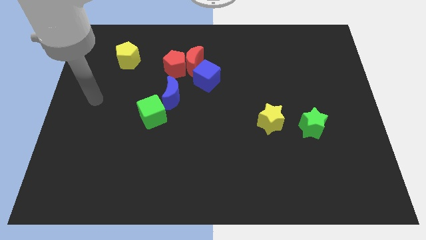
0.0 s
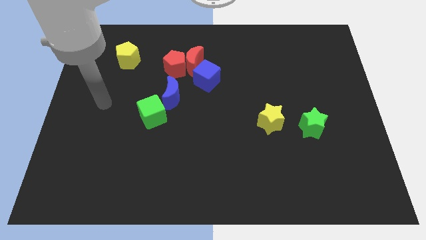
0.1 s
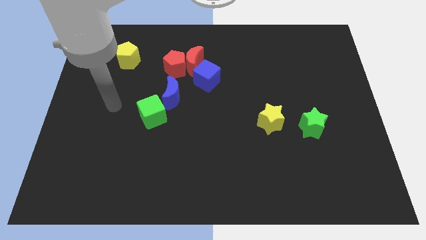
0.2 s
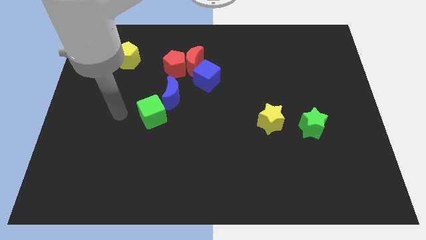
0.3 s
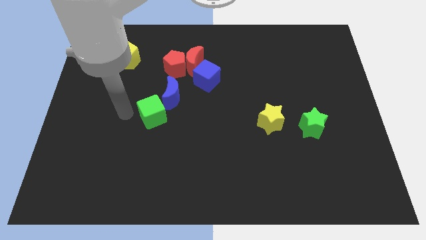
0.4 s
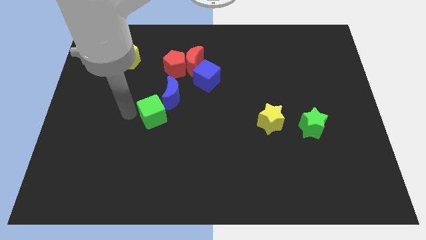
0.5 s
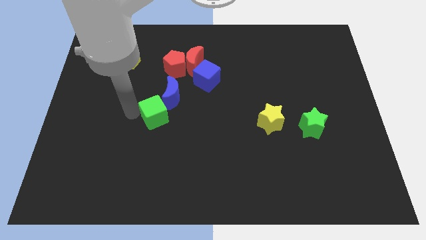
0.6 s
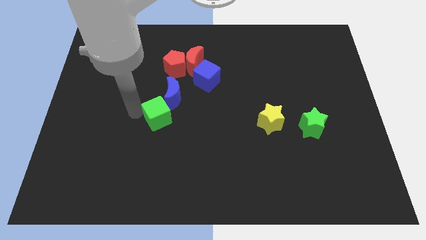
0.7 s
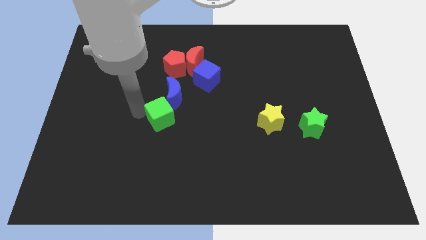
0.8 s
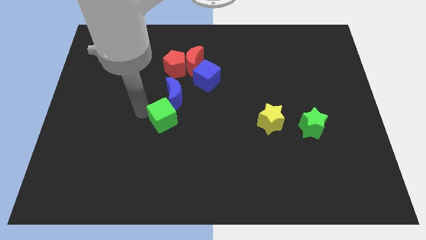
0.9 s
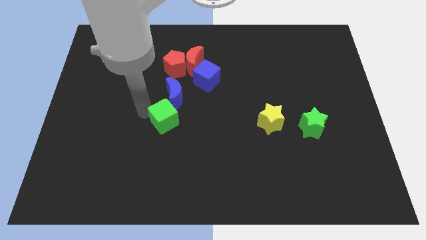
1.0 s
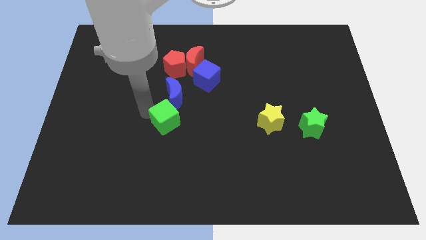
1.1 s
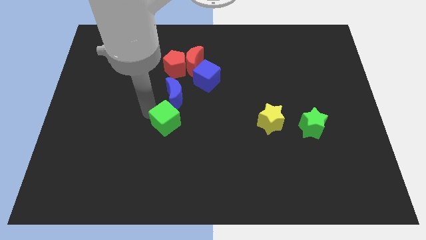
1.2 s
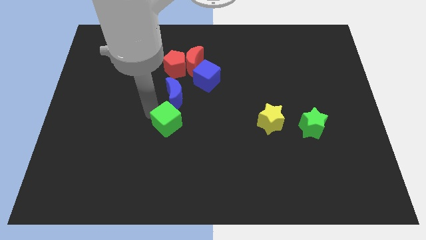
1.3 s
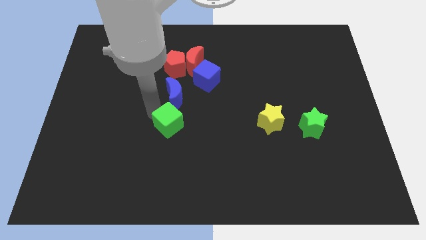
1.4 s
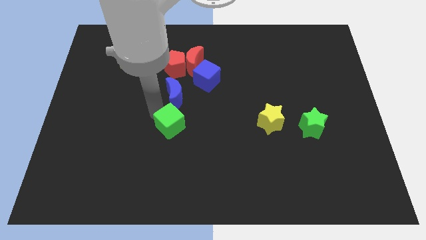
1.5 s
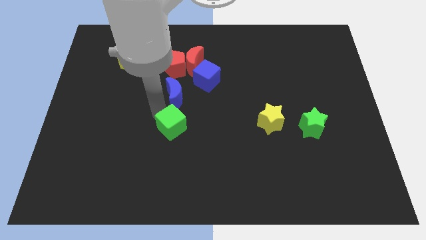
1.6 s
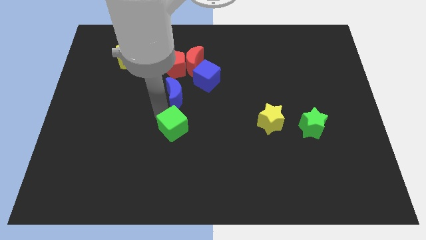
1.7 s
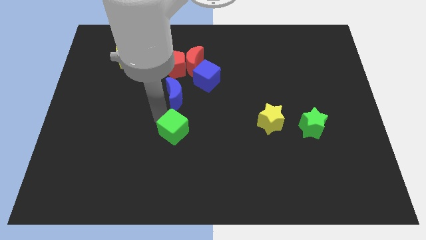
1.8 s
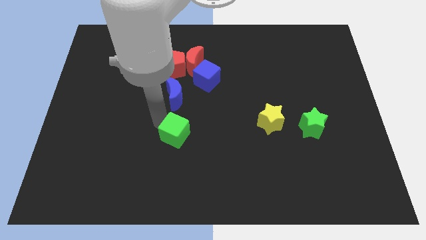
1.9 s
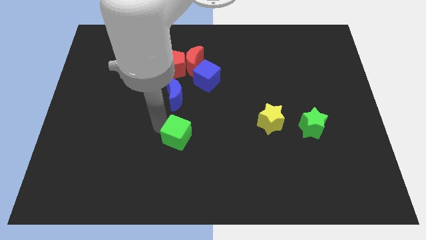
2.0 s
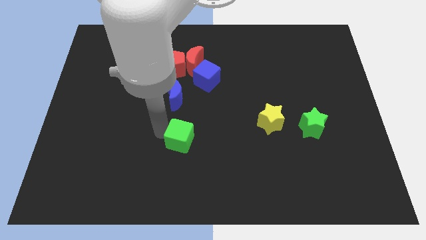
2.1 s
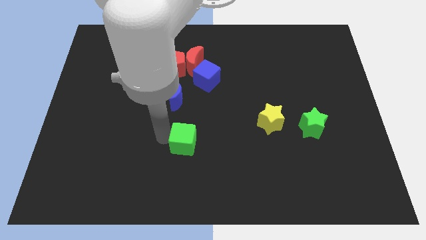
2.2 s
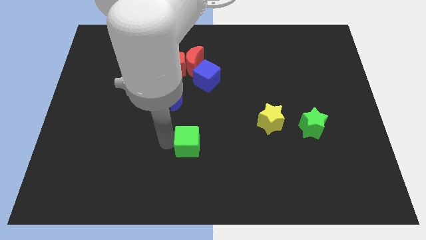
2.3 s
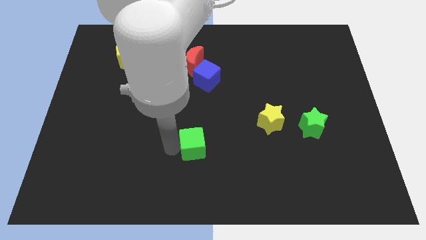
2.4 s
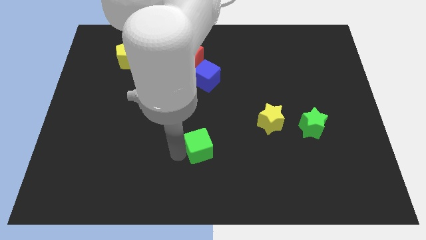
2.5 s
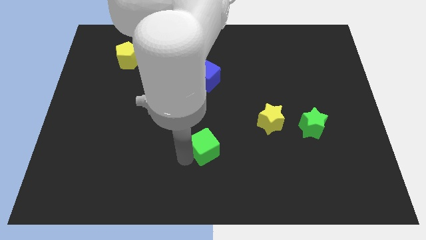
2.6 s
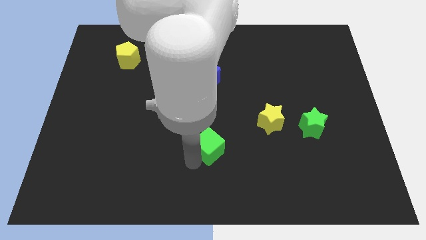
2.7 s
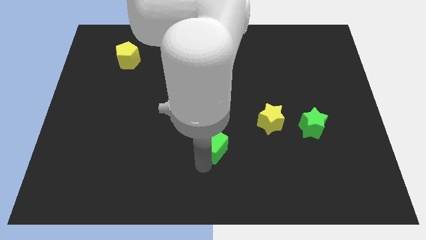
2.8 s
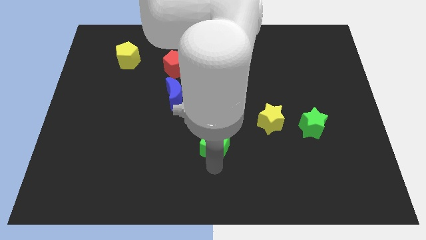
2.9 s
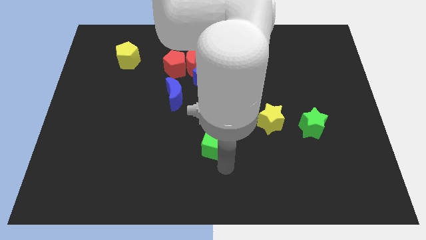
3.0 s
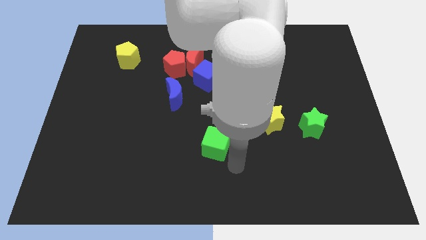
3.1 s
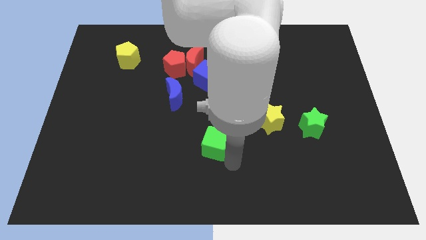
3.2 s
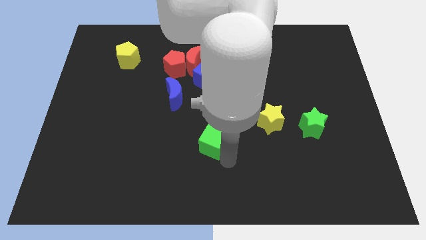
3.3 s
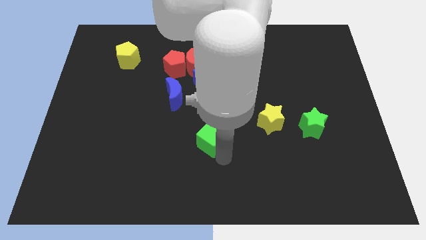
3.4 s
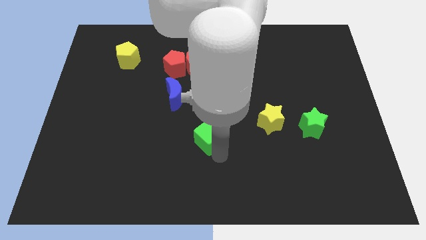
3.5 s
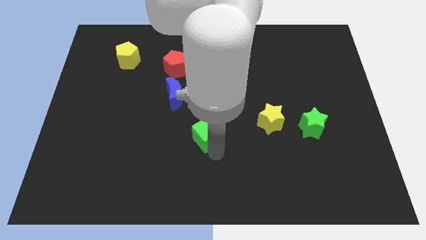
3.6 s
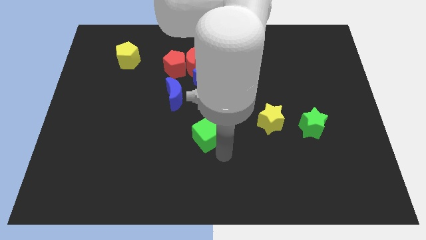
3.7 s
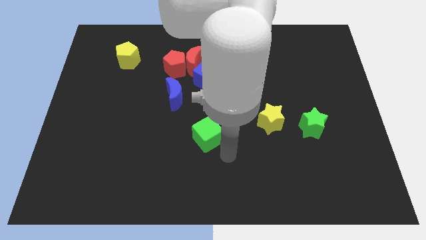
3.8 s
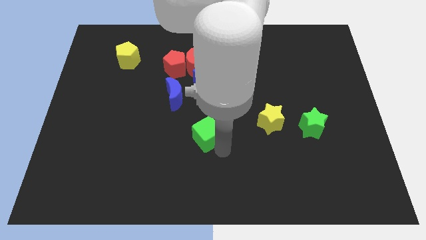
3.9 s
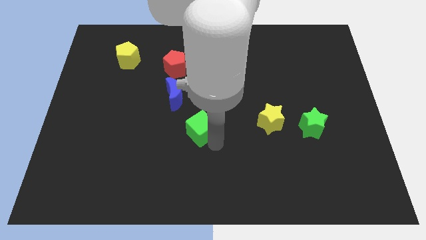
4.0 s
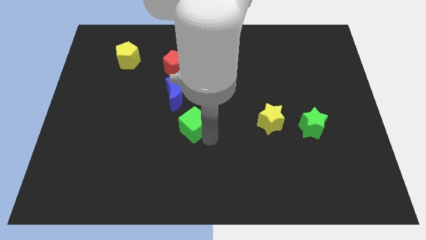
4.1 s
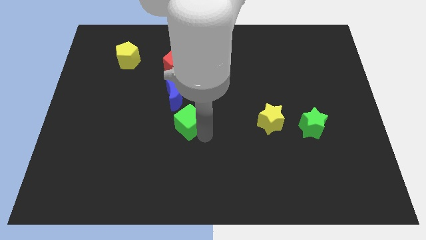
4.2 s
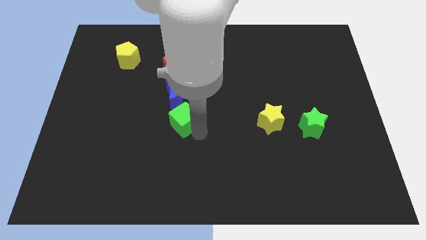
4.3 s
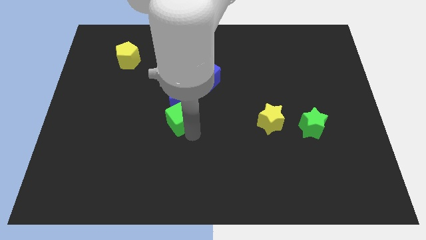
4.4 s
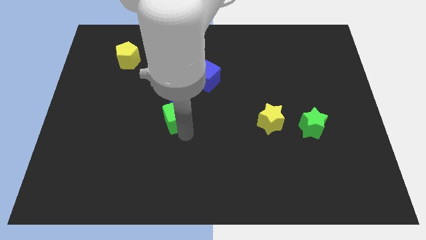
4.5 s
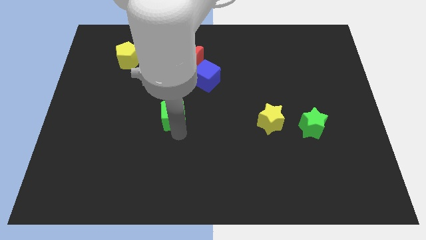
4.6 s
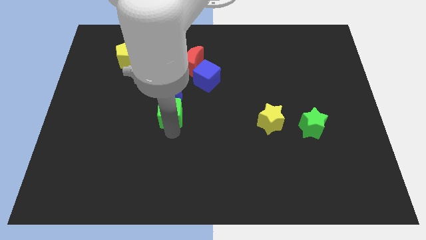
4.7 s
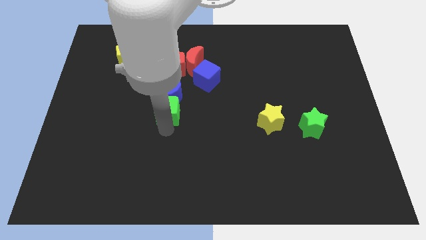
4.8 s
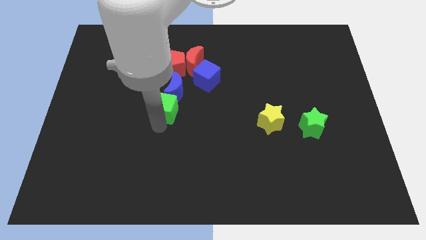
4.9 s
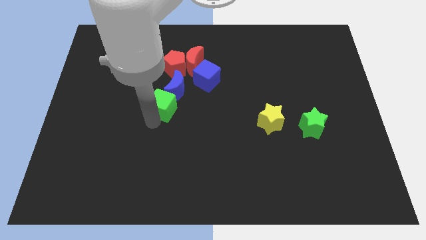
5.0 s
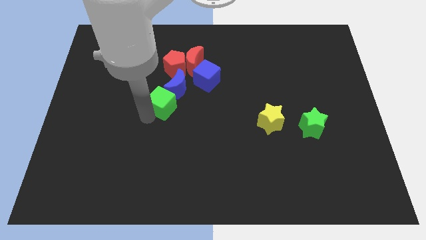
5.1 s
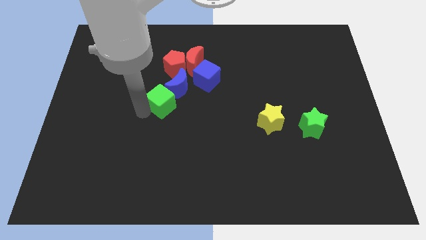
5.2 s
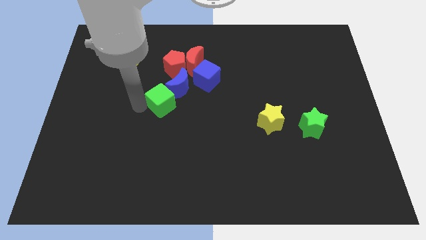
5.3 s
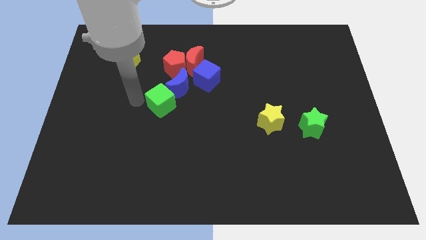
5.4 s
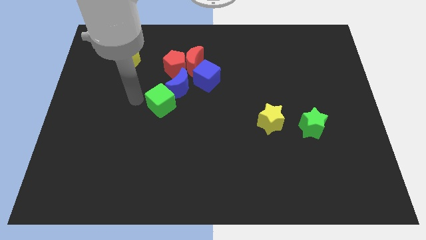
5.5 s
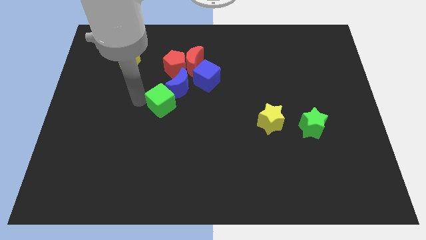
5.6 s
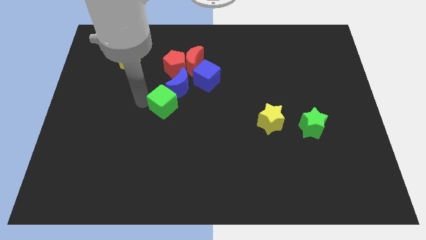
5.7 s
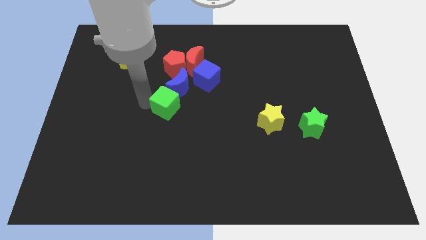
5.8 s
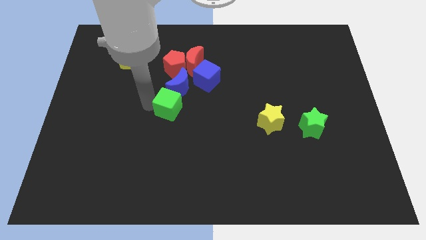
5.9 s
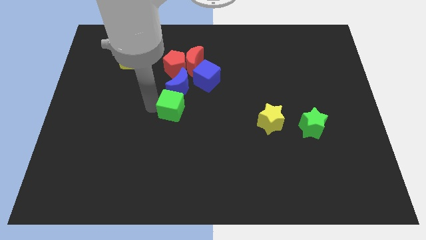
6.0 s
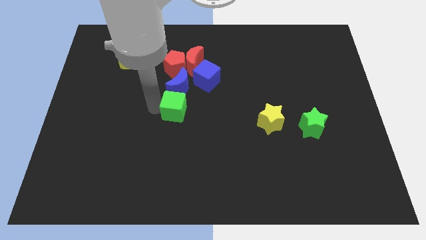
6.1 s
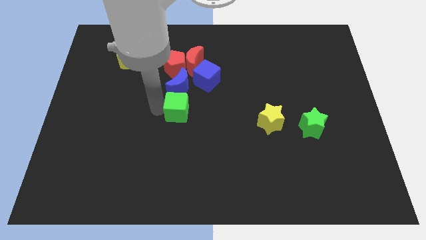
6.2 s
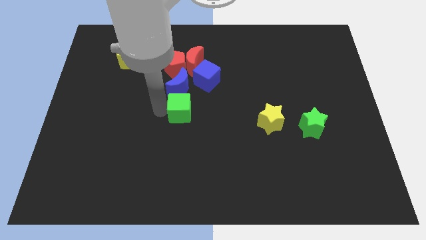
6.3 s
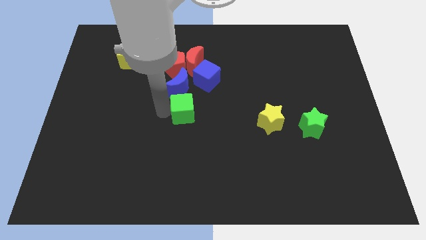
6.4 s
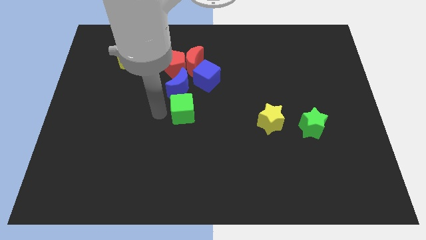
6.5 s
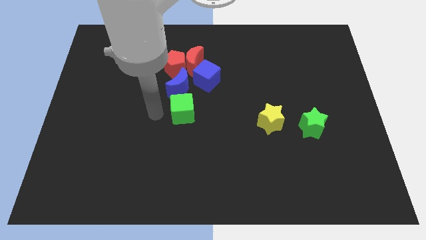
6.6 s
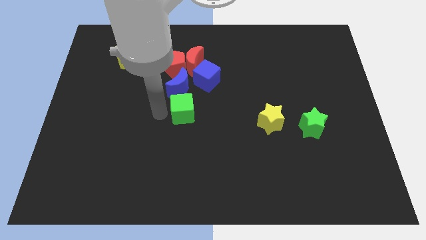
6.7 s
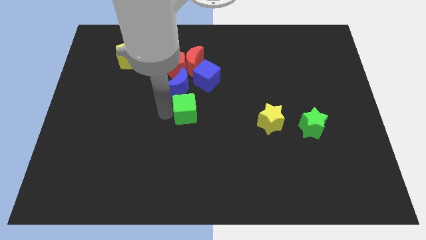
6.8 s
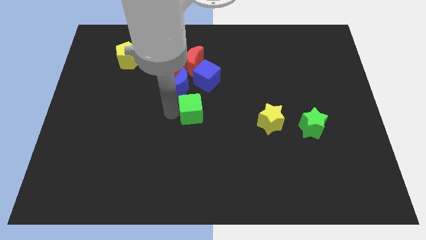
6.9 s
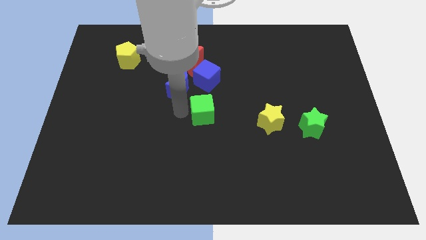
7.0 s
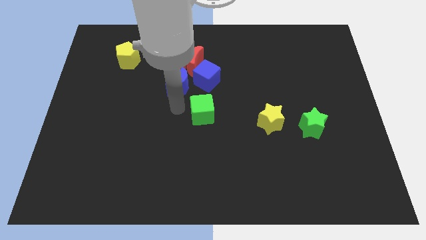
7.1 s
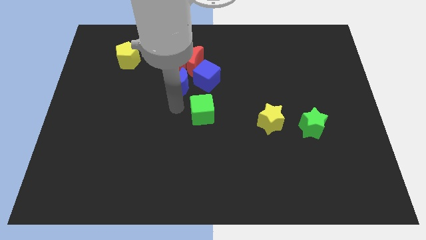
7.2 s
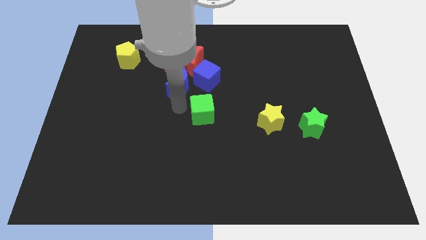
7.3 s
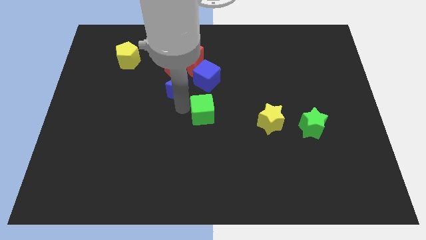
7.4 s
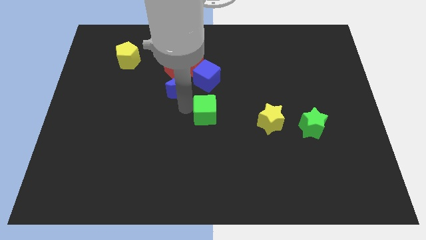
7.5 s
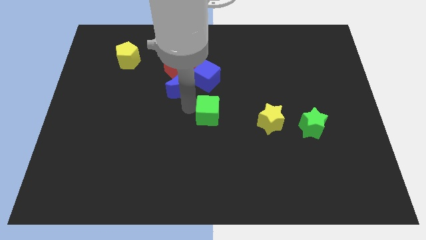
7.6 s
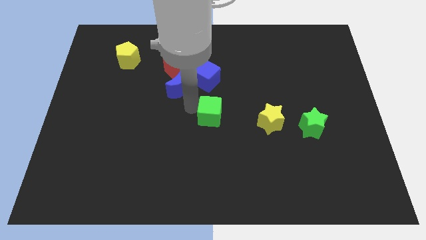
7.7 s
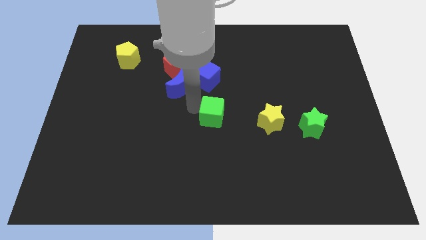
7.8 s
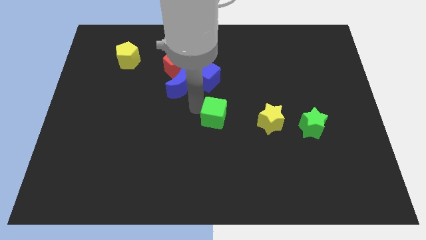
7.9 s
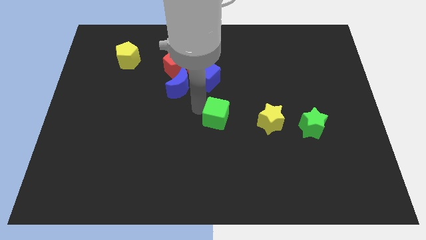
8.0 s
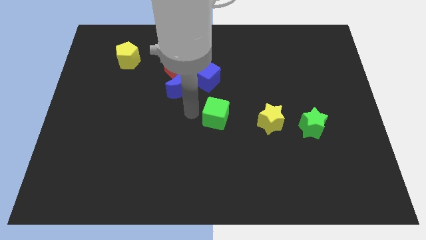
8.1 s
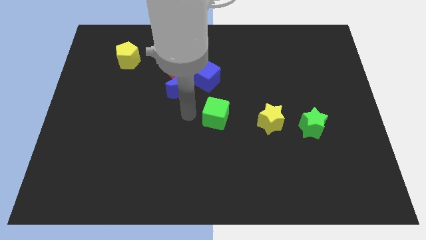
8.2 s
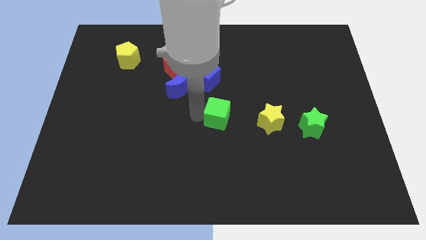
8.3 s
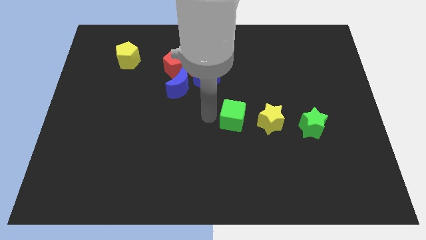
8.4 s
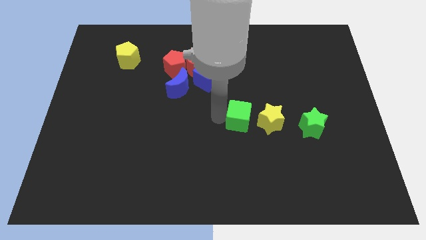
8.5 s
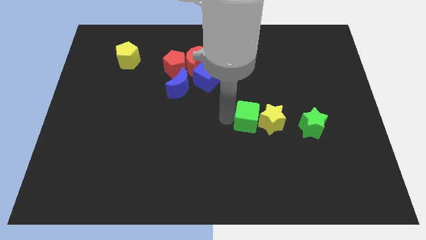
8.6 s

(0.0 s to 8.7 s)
push the green cube close to the yellow star
